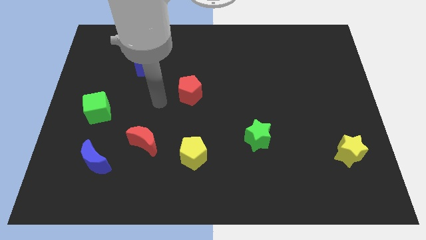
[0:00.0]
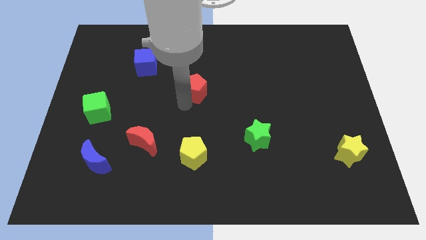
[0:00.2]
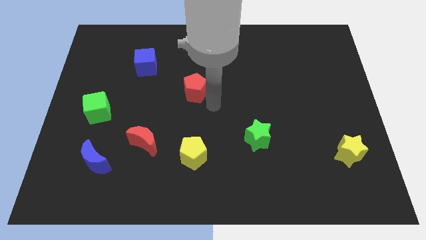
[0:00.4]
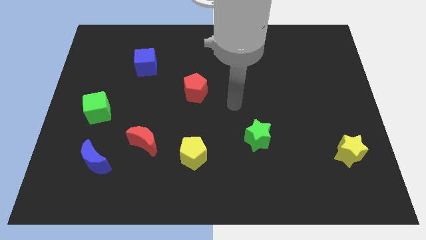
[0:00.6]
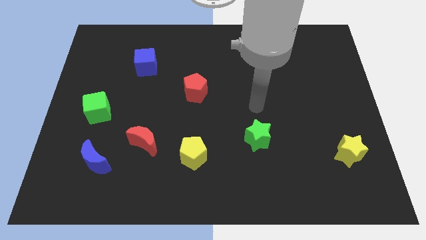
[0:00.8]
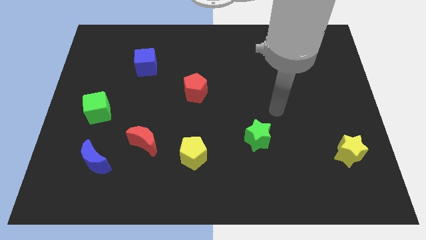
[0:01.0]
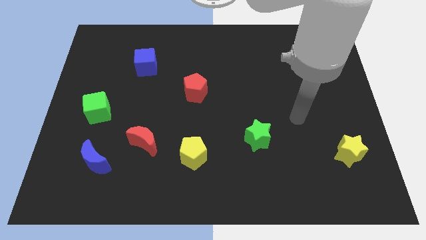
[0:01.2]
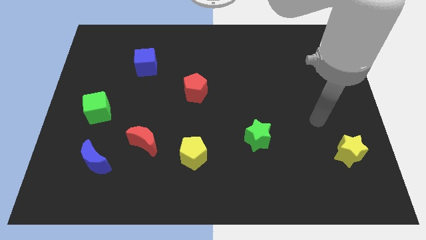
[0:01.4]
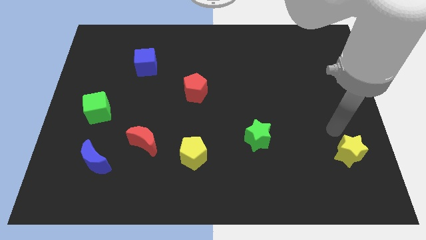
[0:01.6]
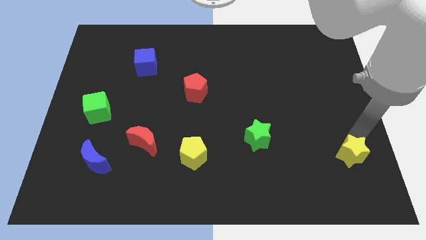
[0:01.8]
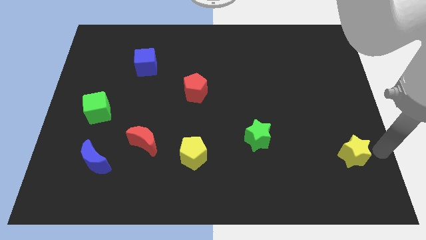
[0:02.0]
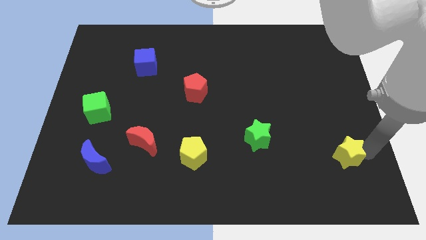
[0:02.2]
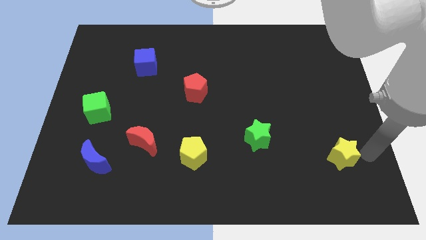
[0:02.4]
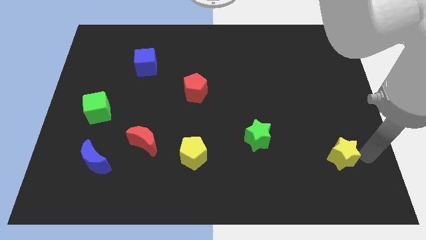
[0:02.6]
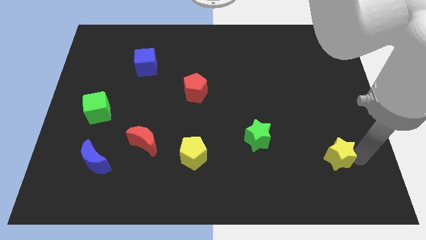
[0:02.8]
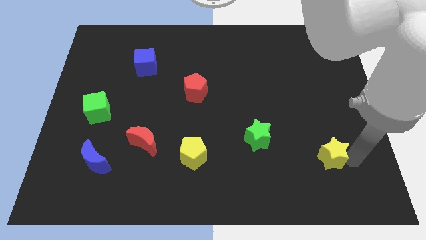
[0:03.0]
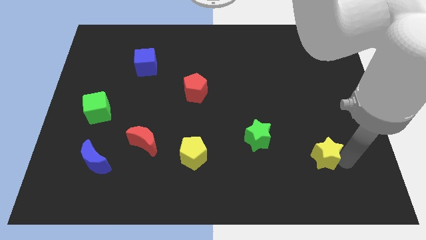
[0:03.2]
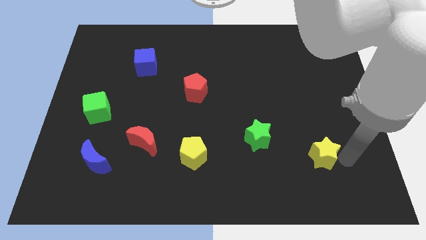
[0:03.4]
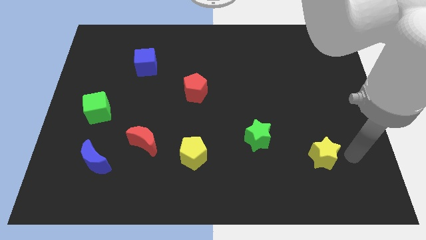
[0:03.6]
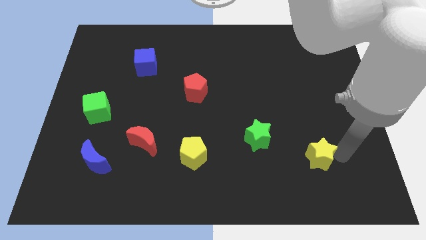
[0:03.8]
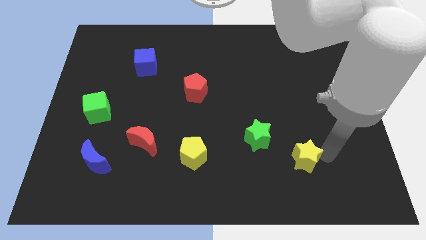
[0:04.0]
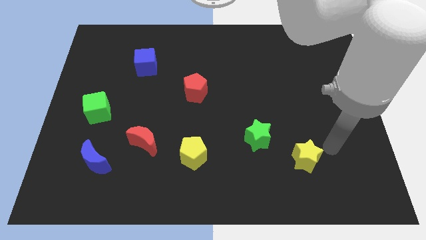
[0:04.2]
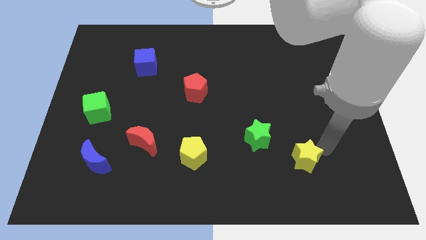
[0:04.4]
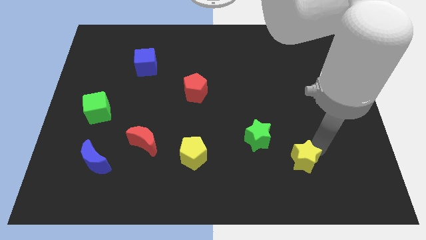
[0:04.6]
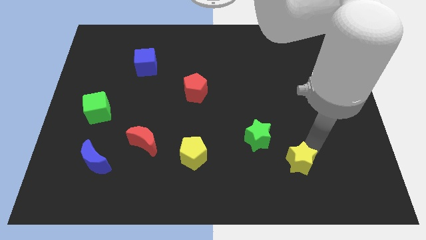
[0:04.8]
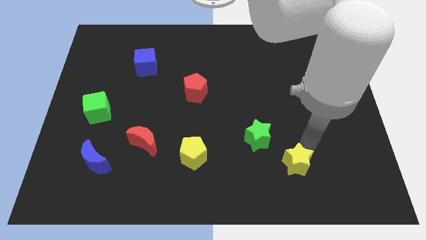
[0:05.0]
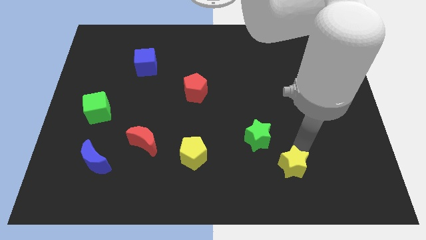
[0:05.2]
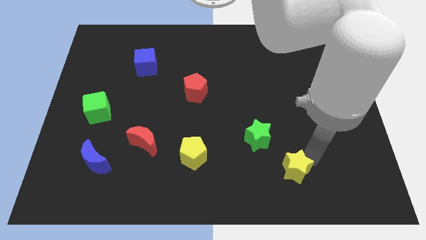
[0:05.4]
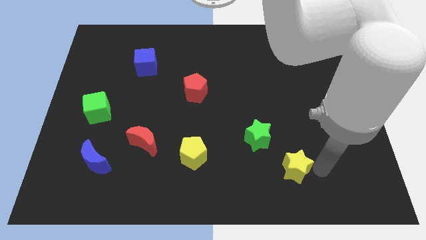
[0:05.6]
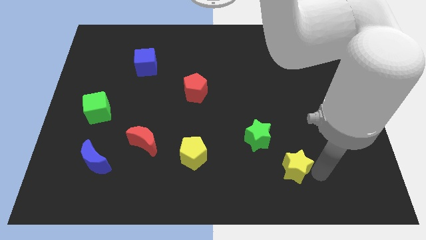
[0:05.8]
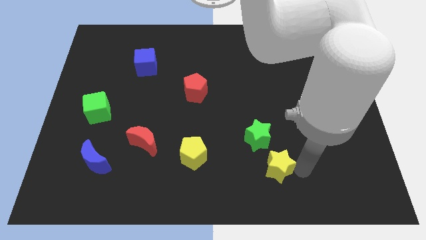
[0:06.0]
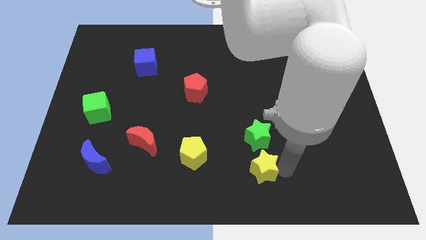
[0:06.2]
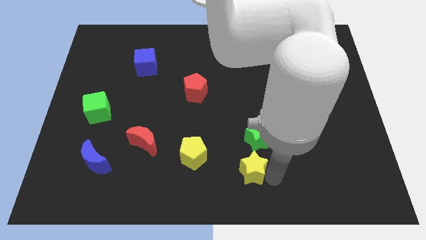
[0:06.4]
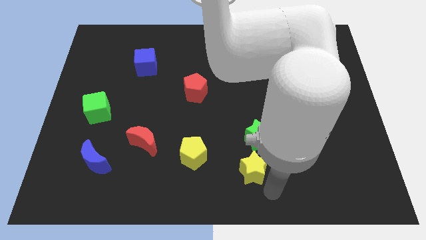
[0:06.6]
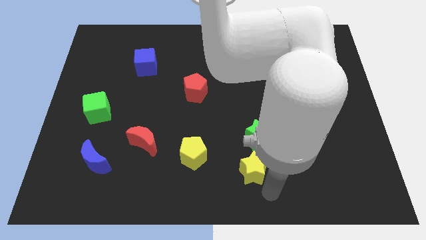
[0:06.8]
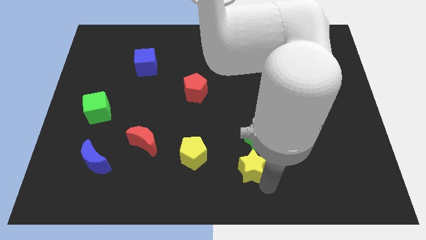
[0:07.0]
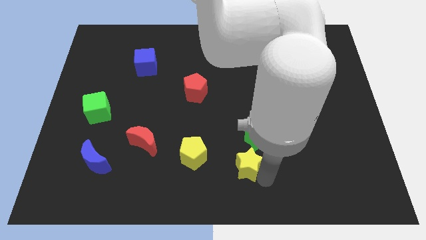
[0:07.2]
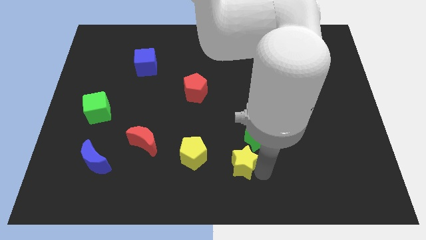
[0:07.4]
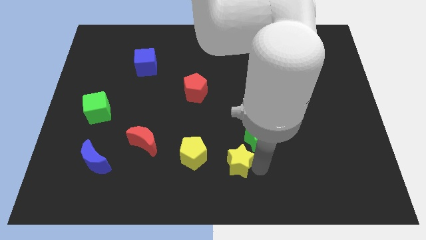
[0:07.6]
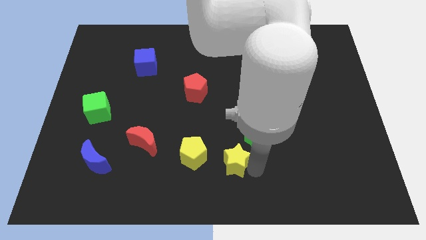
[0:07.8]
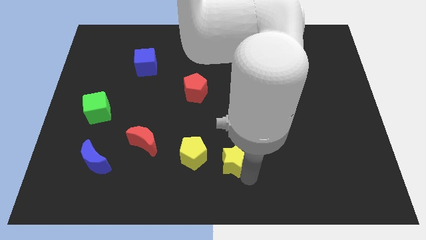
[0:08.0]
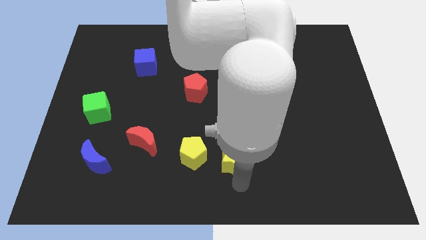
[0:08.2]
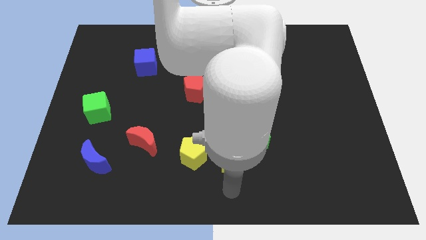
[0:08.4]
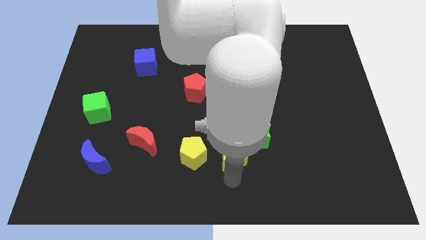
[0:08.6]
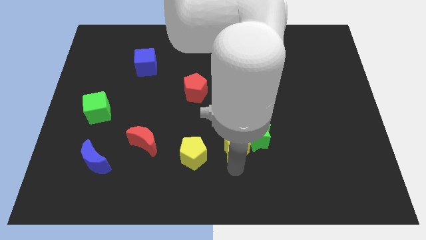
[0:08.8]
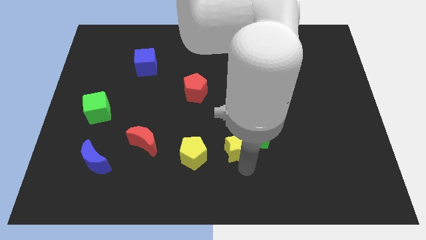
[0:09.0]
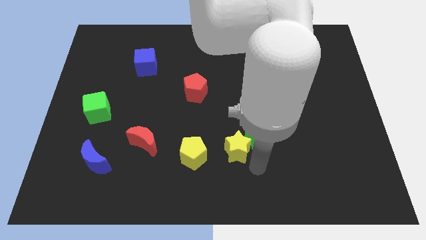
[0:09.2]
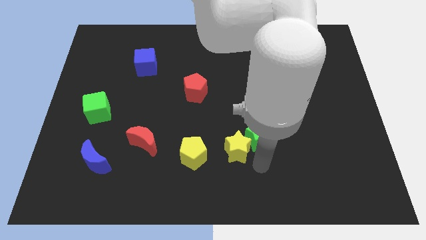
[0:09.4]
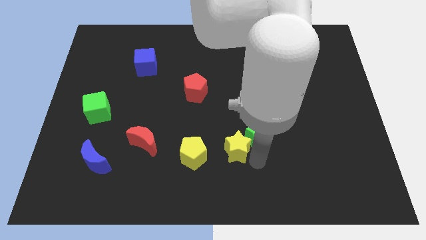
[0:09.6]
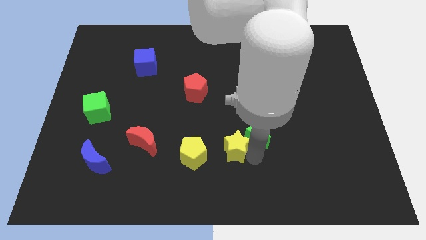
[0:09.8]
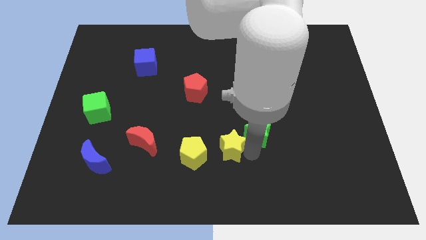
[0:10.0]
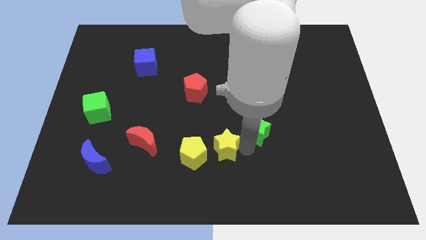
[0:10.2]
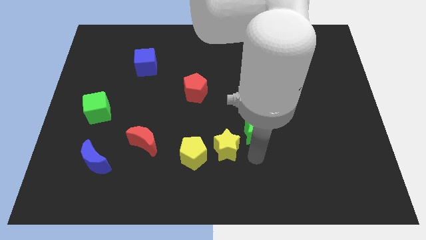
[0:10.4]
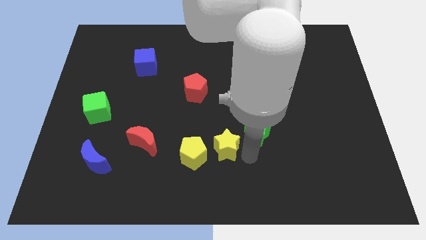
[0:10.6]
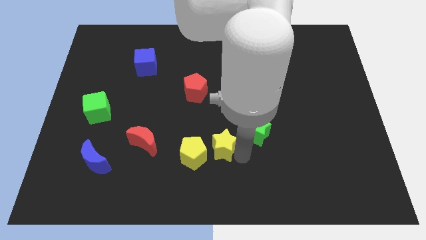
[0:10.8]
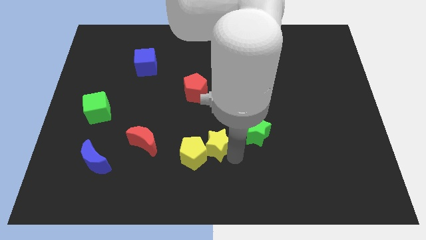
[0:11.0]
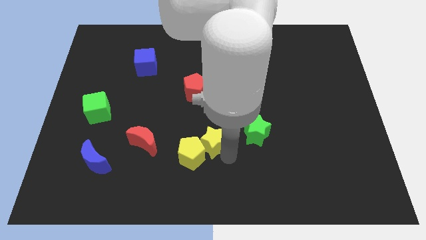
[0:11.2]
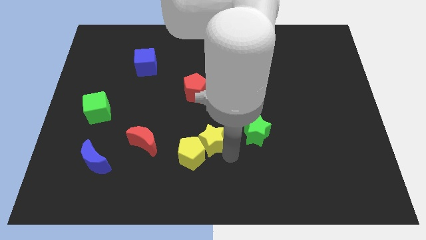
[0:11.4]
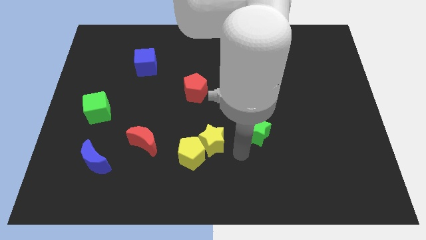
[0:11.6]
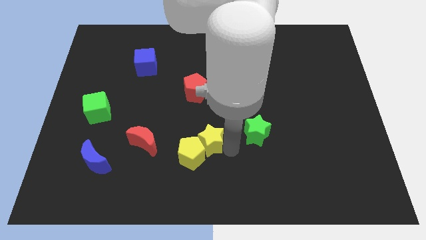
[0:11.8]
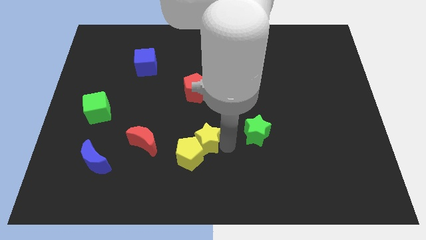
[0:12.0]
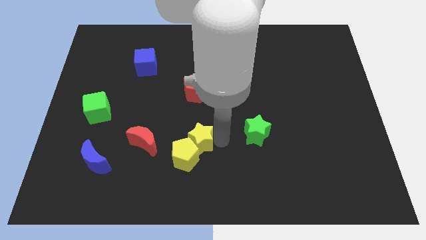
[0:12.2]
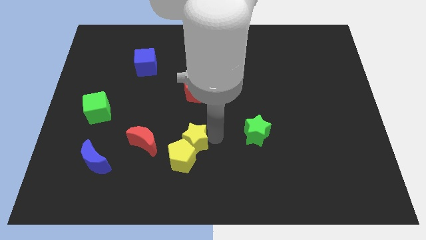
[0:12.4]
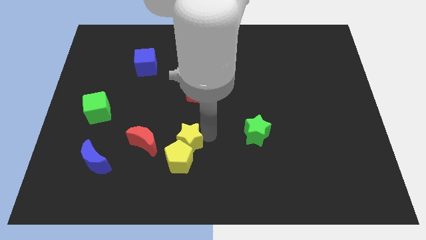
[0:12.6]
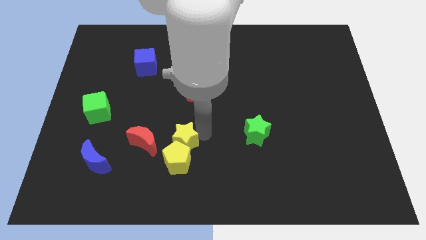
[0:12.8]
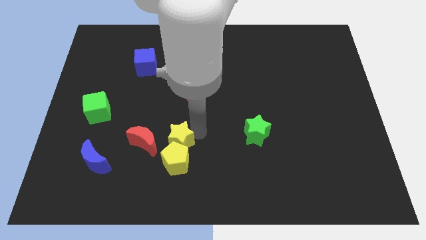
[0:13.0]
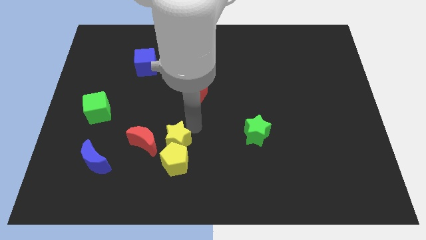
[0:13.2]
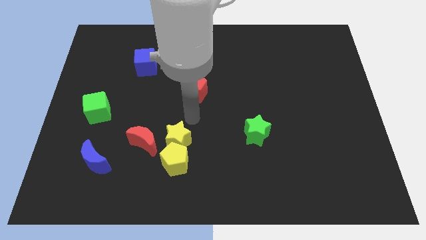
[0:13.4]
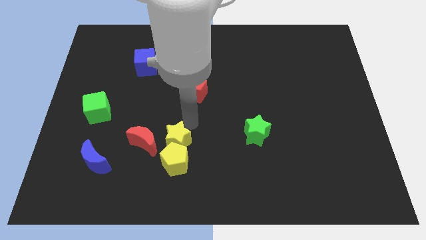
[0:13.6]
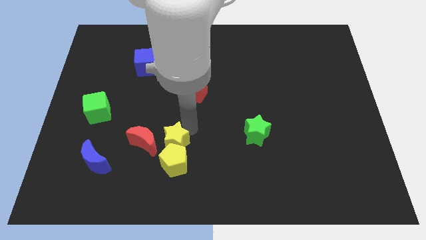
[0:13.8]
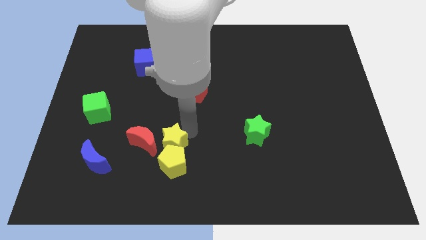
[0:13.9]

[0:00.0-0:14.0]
slide the yellow star to the bottom right of the red moon
